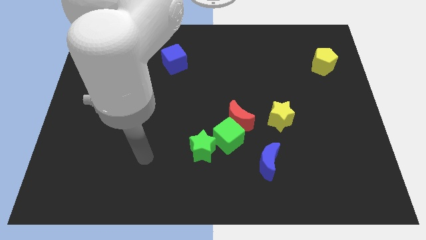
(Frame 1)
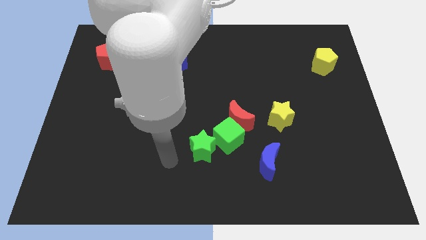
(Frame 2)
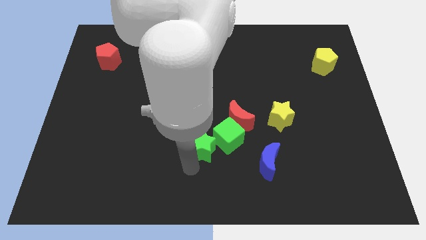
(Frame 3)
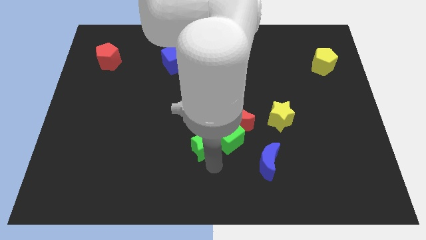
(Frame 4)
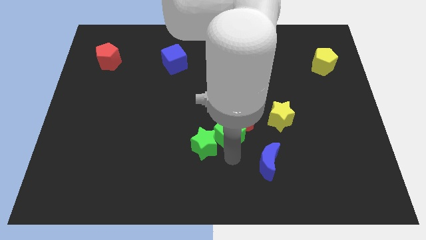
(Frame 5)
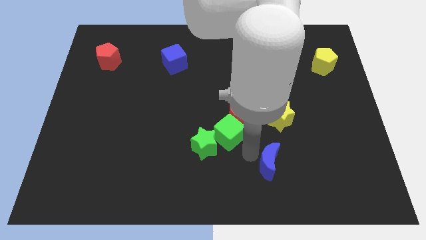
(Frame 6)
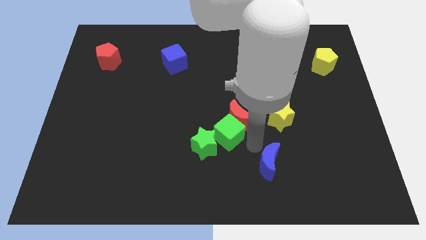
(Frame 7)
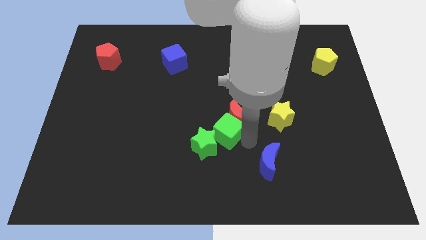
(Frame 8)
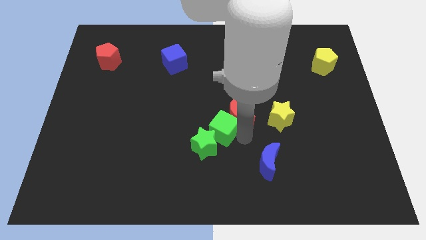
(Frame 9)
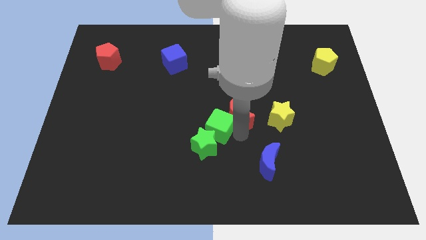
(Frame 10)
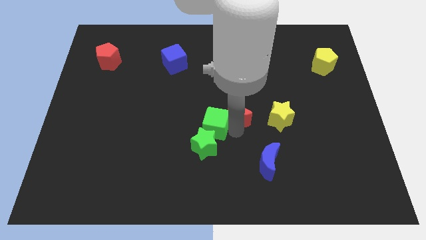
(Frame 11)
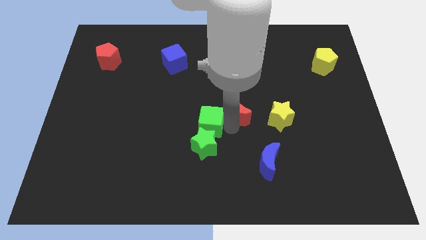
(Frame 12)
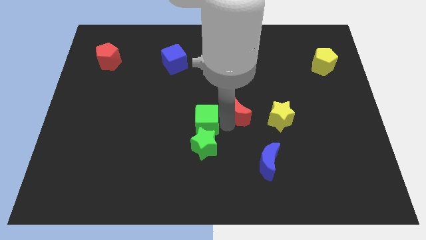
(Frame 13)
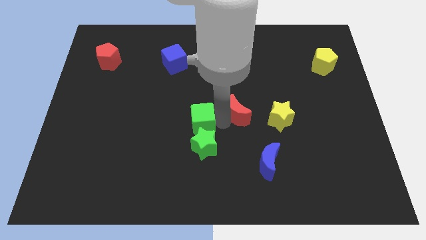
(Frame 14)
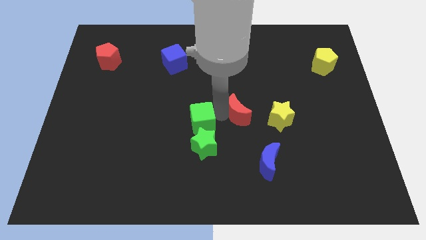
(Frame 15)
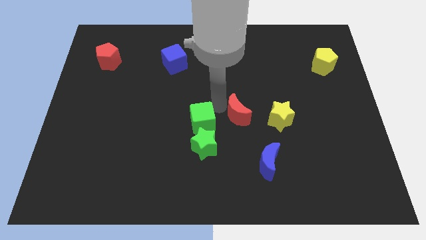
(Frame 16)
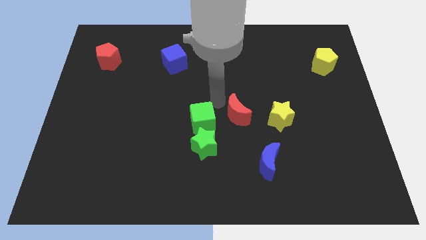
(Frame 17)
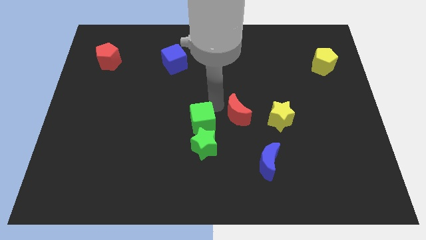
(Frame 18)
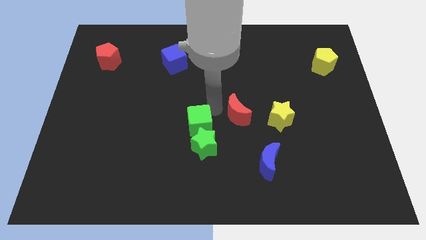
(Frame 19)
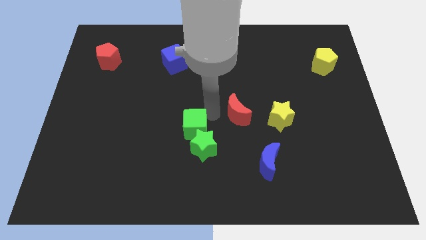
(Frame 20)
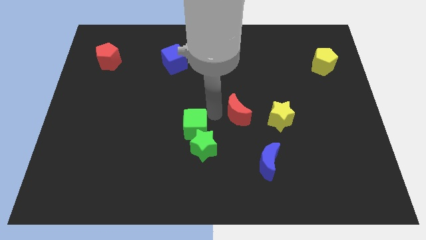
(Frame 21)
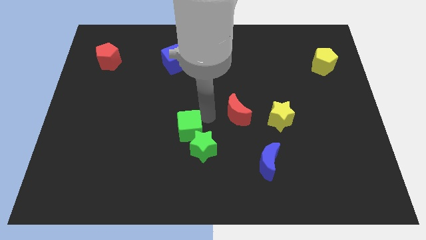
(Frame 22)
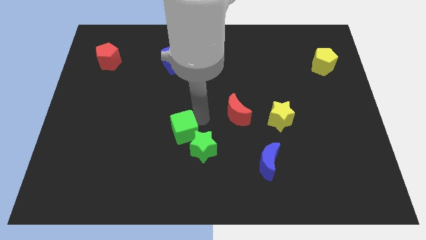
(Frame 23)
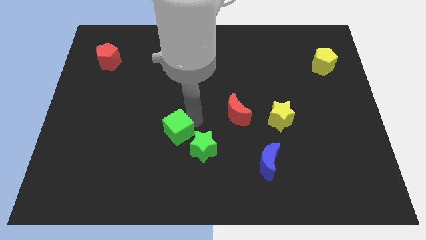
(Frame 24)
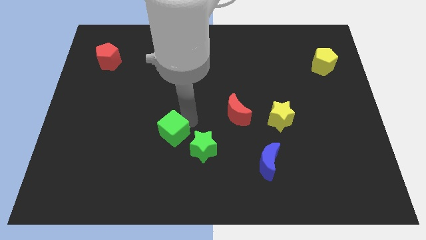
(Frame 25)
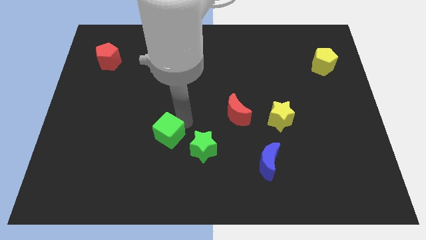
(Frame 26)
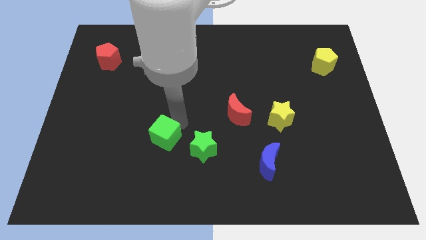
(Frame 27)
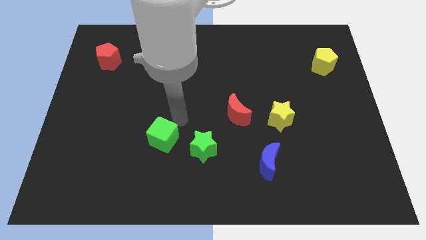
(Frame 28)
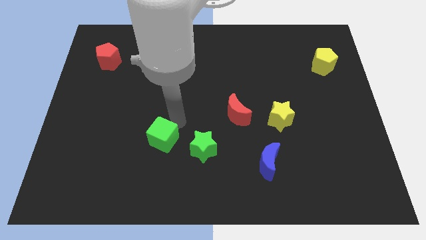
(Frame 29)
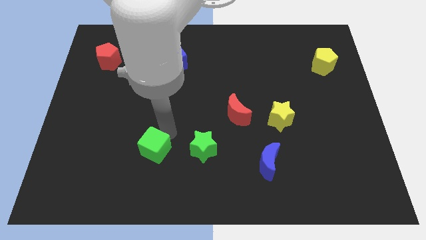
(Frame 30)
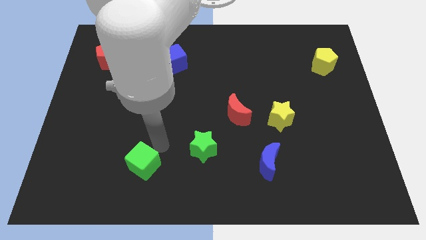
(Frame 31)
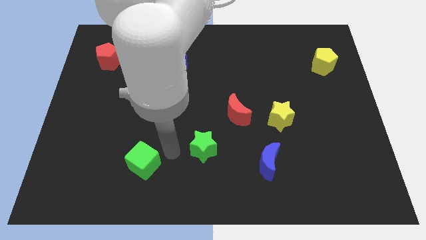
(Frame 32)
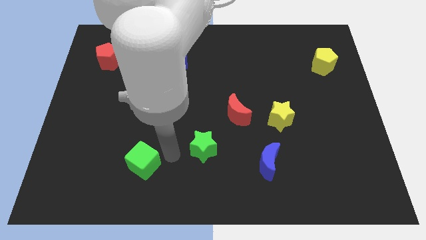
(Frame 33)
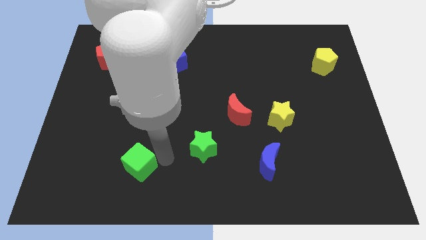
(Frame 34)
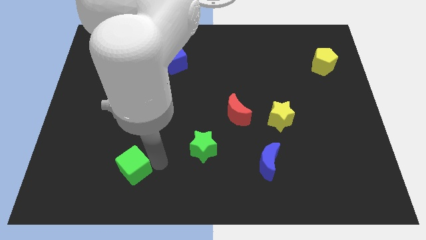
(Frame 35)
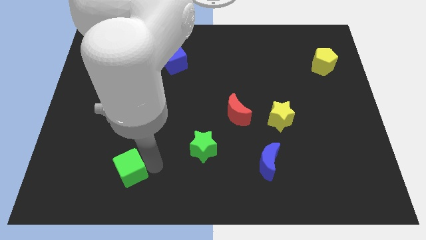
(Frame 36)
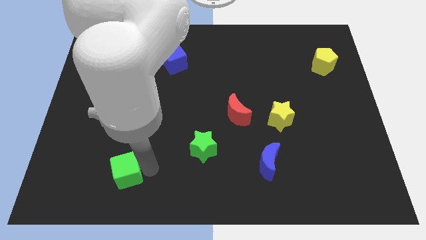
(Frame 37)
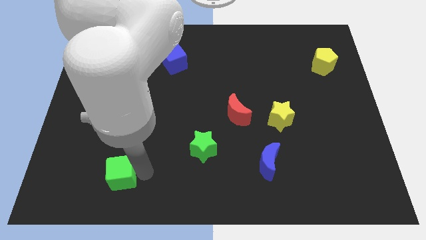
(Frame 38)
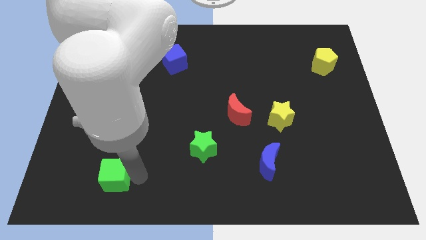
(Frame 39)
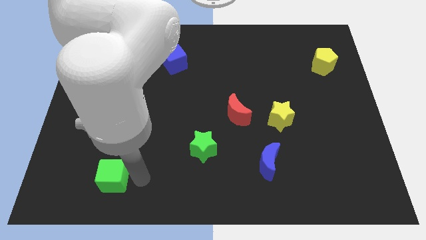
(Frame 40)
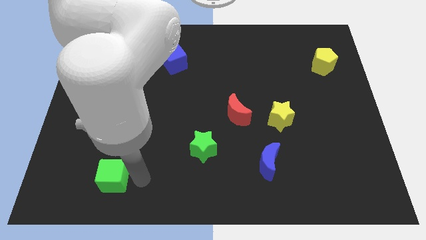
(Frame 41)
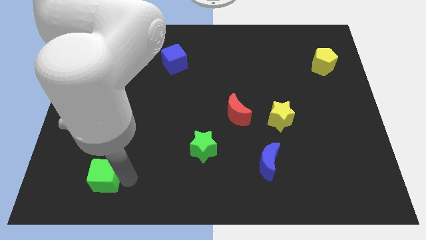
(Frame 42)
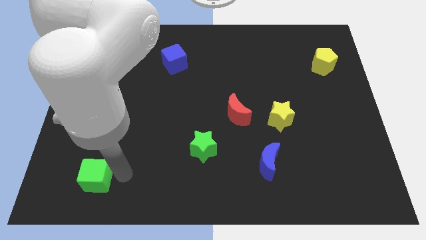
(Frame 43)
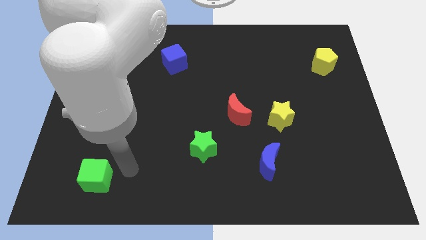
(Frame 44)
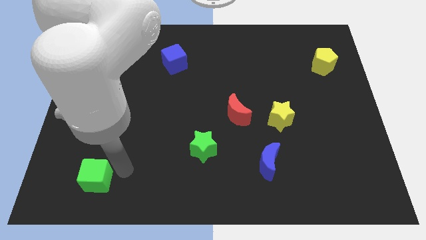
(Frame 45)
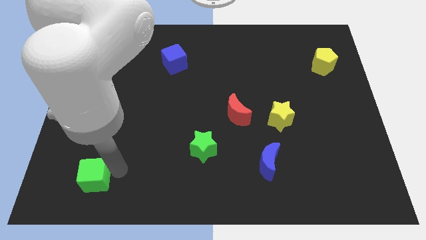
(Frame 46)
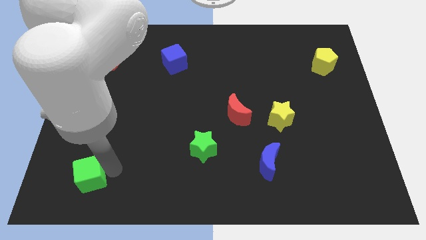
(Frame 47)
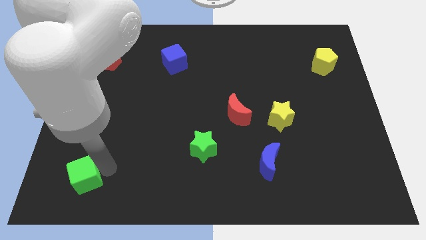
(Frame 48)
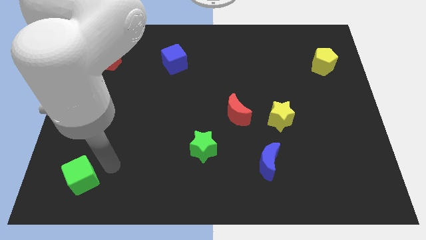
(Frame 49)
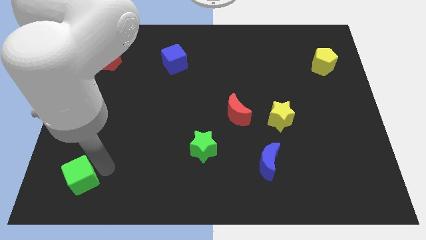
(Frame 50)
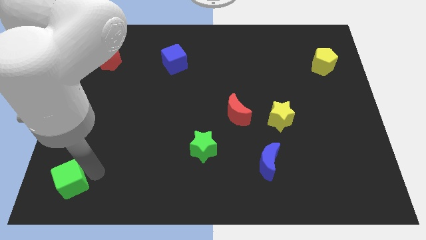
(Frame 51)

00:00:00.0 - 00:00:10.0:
put the green cube to the bottom left of the board

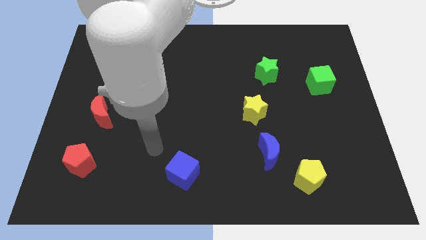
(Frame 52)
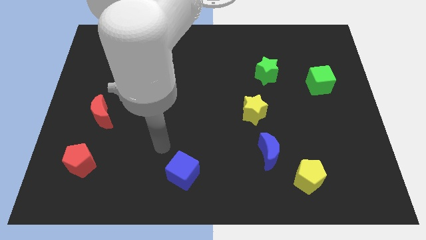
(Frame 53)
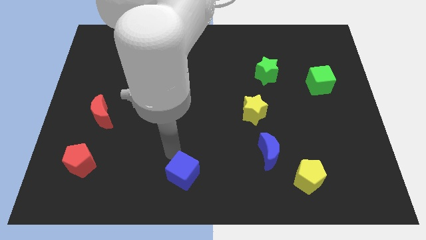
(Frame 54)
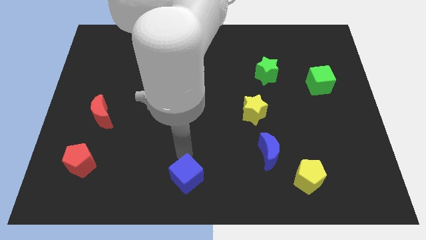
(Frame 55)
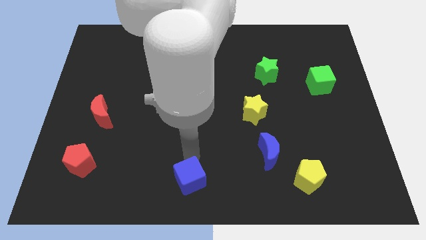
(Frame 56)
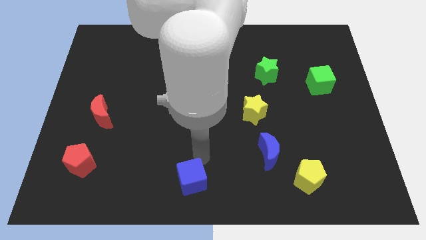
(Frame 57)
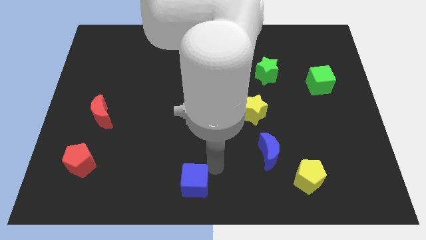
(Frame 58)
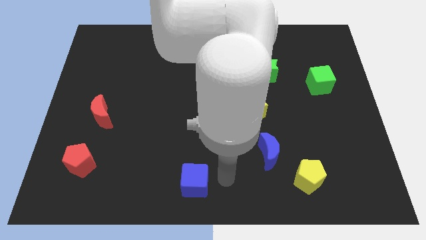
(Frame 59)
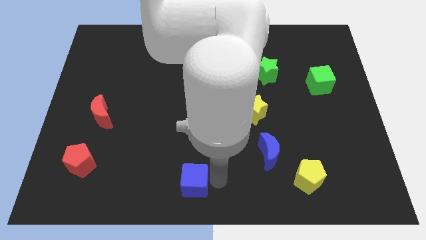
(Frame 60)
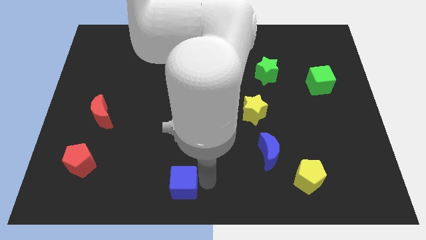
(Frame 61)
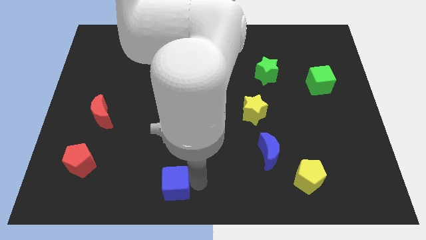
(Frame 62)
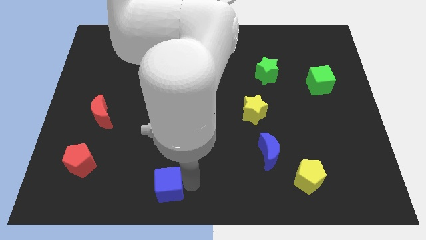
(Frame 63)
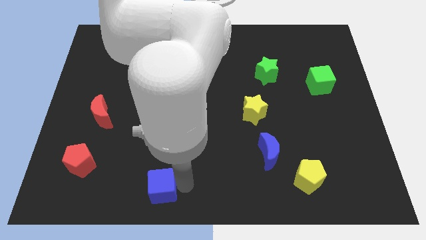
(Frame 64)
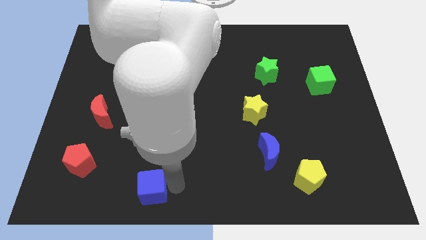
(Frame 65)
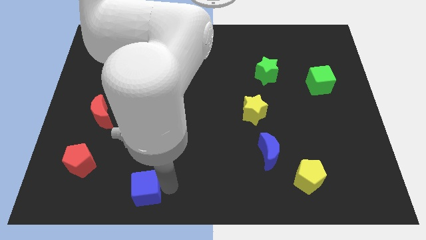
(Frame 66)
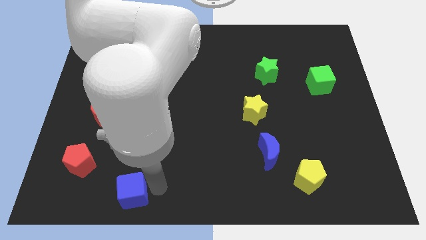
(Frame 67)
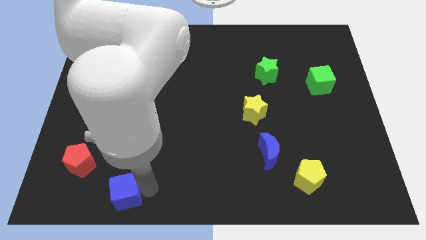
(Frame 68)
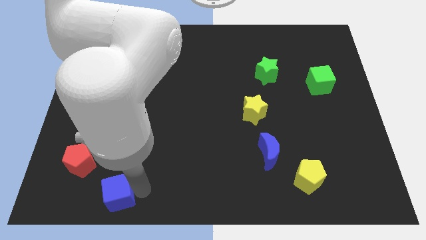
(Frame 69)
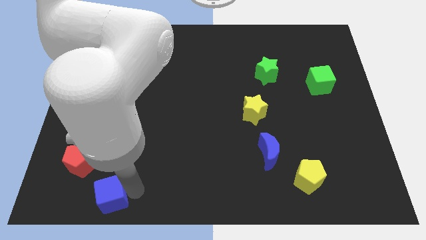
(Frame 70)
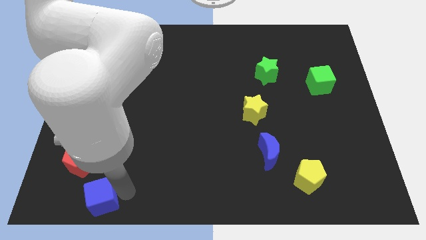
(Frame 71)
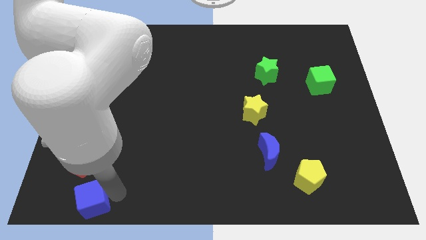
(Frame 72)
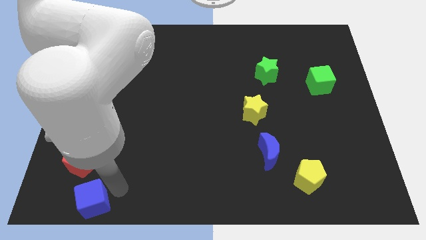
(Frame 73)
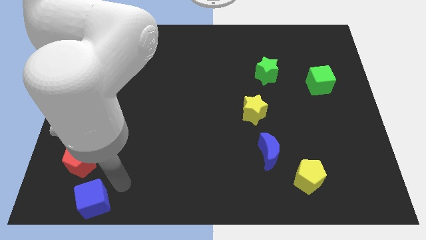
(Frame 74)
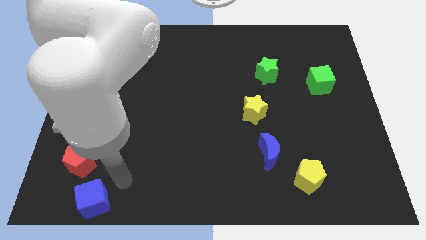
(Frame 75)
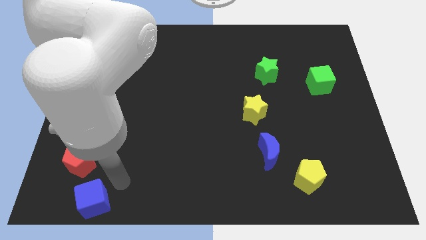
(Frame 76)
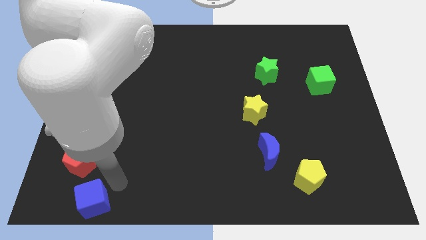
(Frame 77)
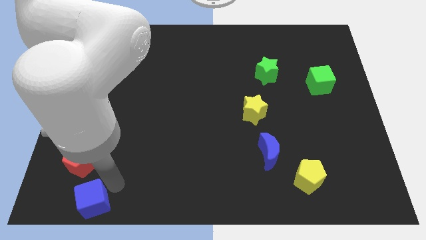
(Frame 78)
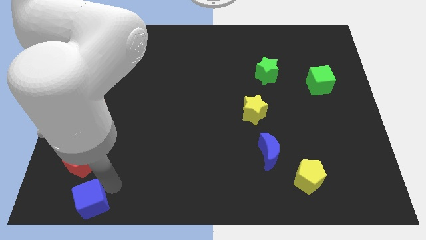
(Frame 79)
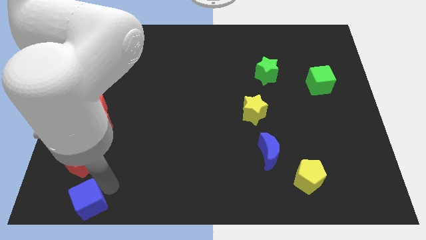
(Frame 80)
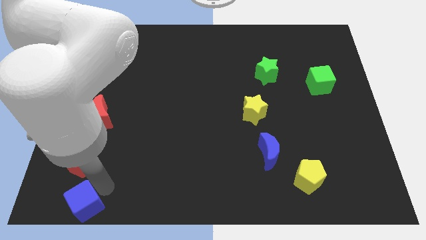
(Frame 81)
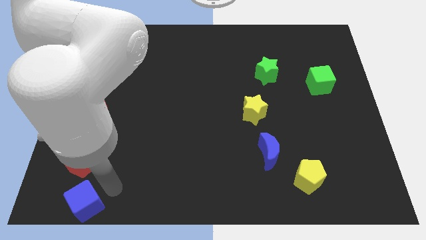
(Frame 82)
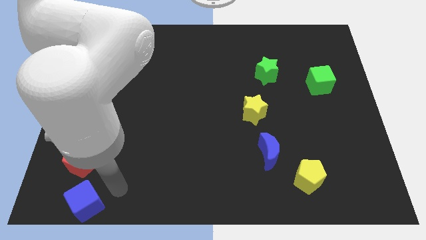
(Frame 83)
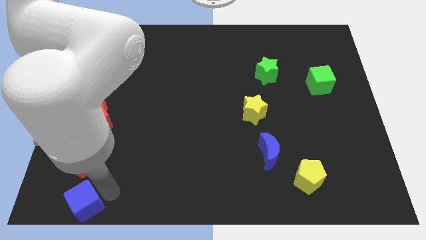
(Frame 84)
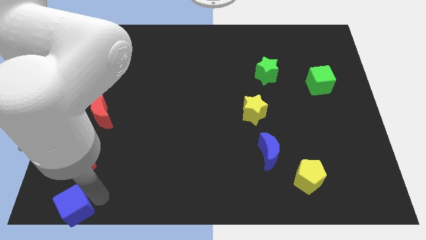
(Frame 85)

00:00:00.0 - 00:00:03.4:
push the blue cube to the lower left corner
